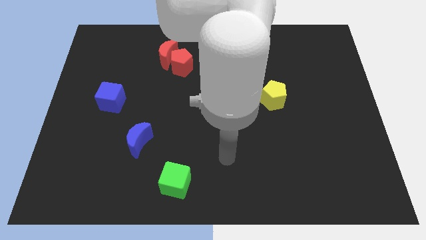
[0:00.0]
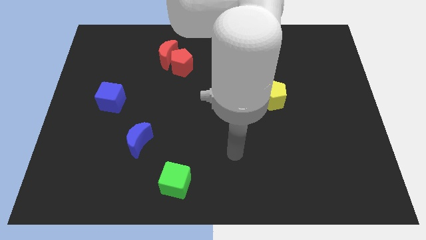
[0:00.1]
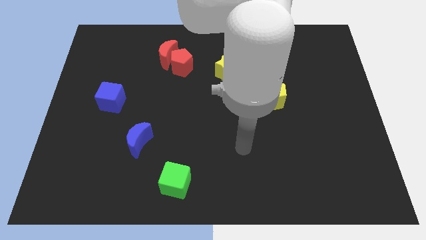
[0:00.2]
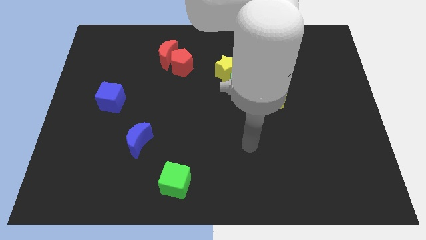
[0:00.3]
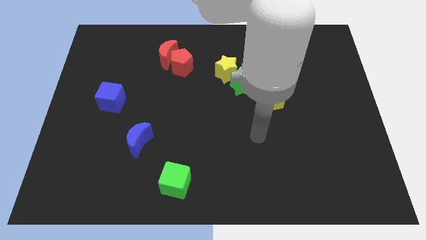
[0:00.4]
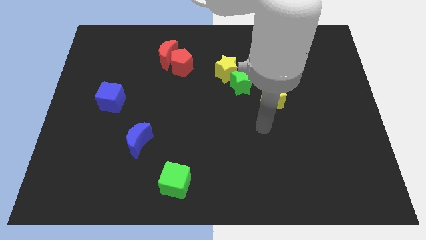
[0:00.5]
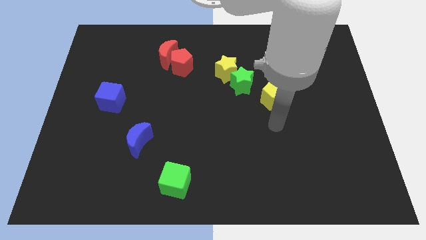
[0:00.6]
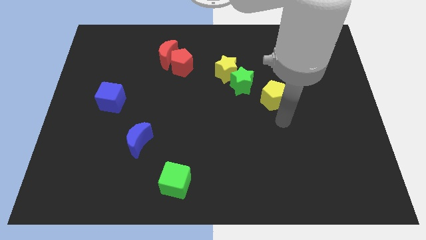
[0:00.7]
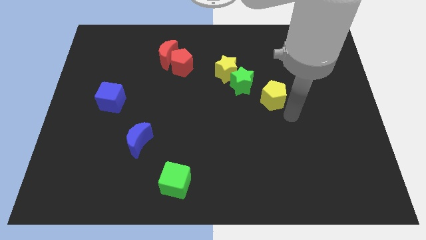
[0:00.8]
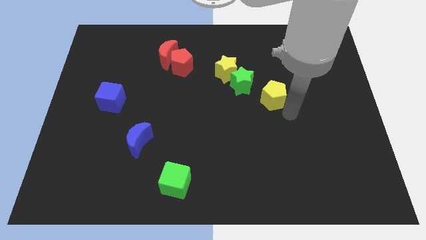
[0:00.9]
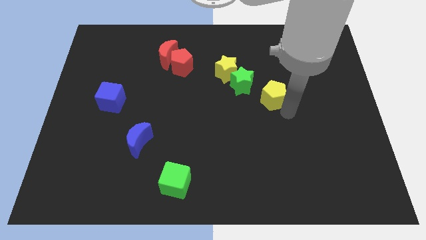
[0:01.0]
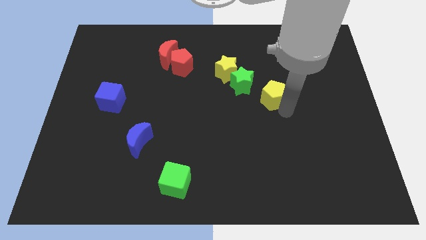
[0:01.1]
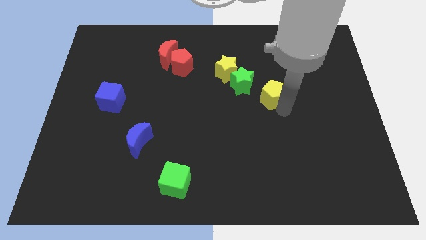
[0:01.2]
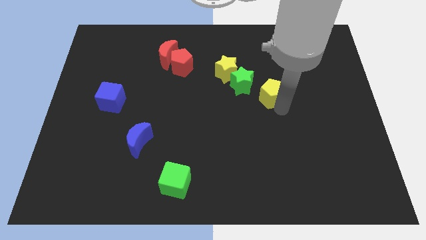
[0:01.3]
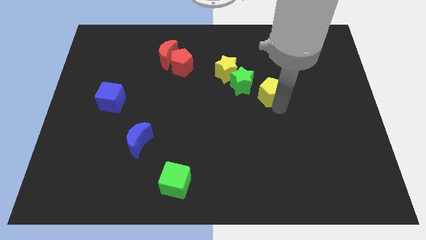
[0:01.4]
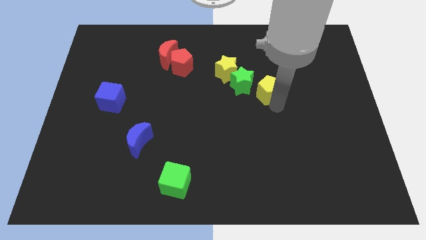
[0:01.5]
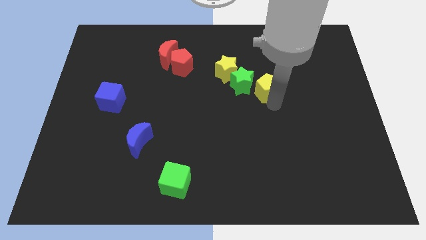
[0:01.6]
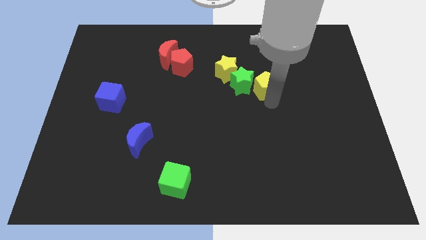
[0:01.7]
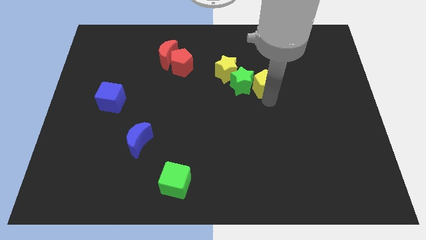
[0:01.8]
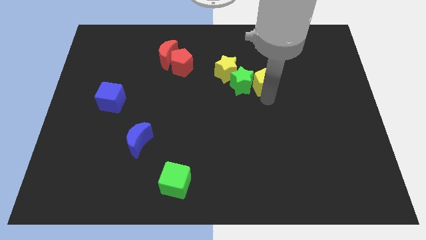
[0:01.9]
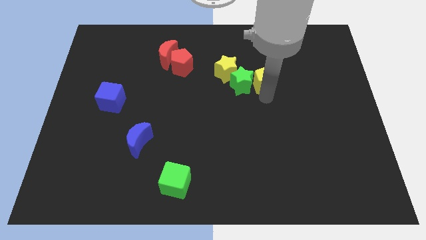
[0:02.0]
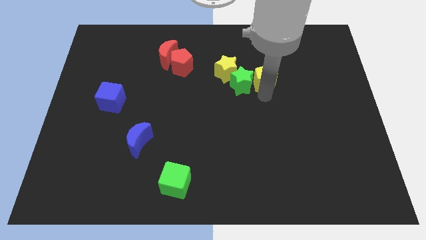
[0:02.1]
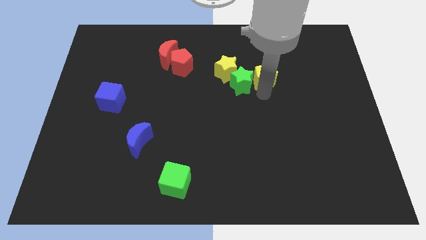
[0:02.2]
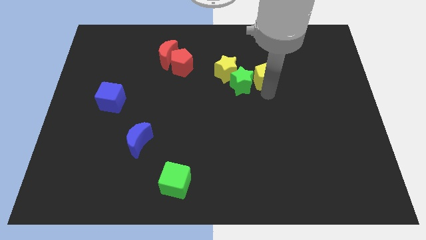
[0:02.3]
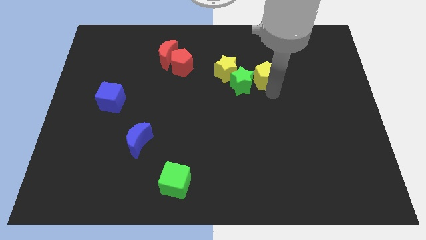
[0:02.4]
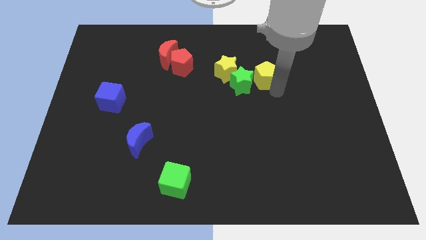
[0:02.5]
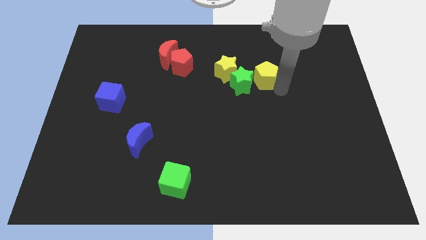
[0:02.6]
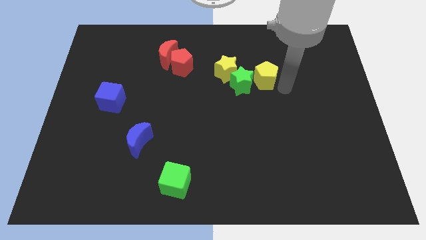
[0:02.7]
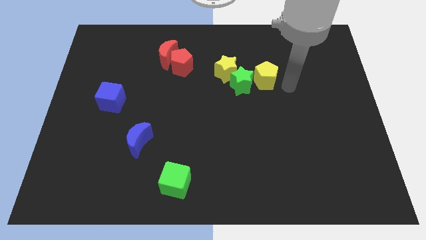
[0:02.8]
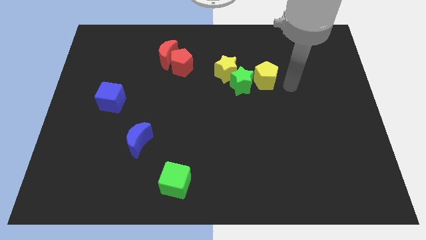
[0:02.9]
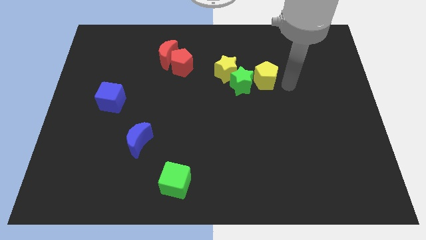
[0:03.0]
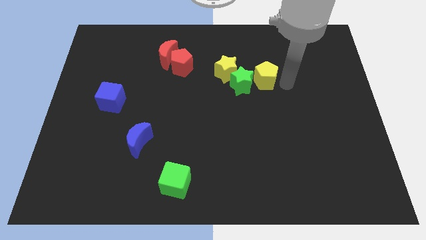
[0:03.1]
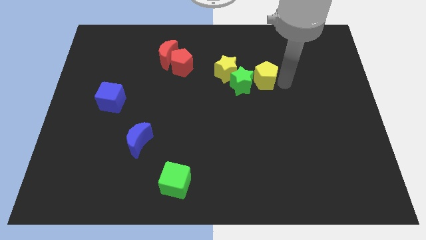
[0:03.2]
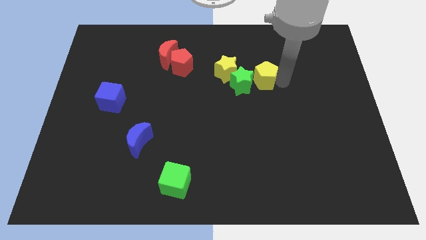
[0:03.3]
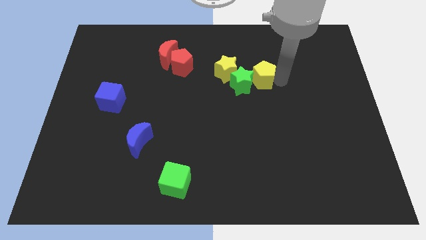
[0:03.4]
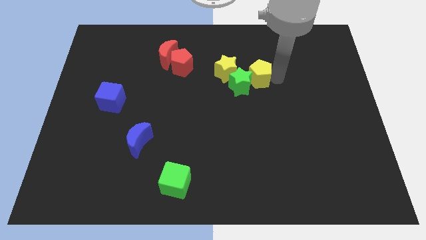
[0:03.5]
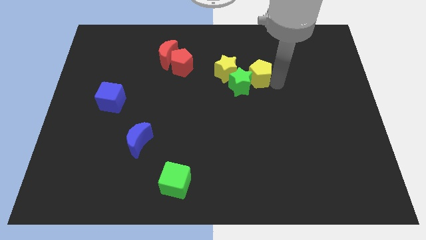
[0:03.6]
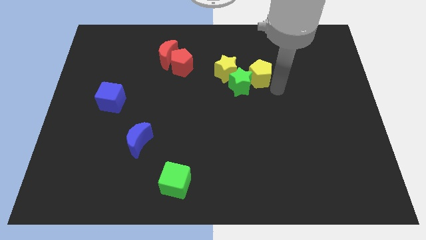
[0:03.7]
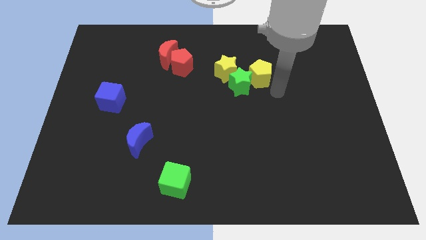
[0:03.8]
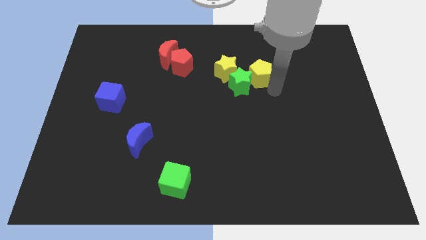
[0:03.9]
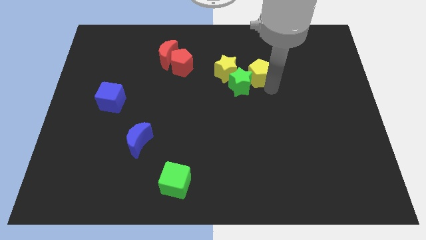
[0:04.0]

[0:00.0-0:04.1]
slightly push the yellow pentagon upwards and then left

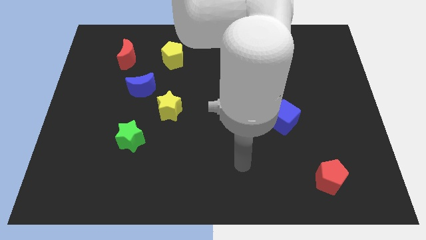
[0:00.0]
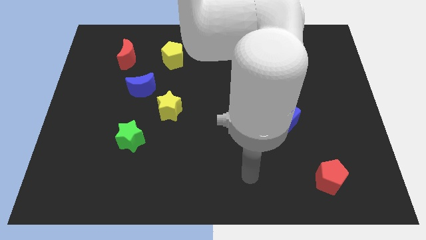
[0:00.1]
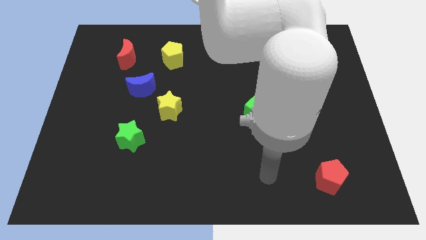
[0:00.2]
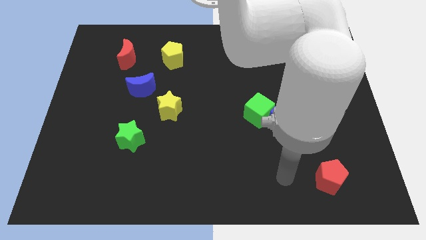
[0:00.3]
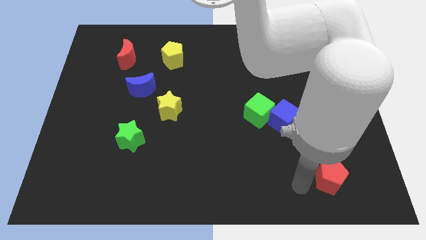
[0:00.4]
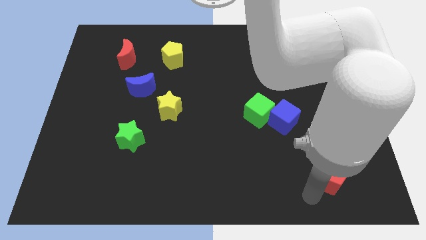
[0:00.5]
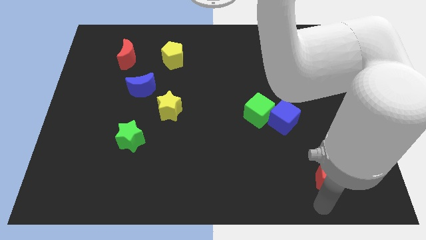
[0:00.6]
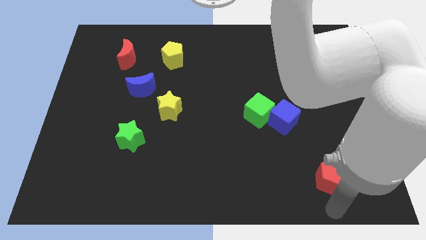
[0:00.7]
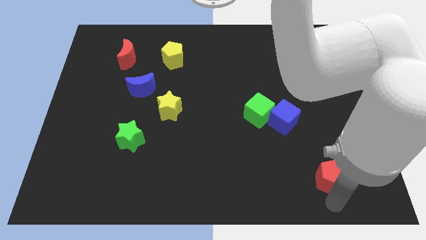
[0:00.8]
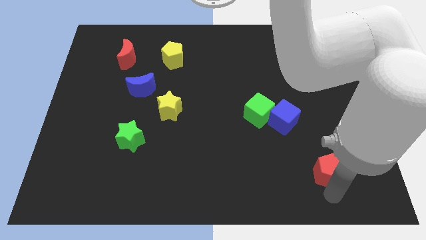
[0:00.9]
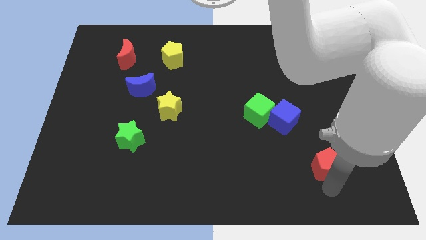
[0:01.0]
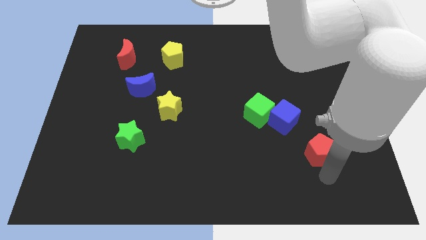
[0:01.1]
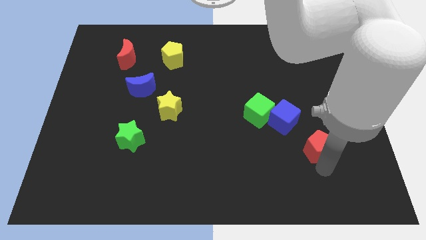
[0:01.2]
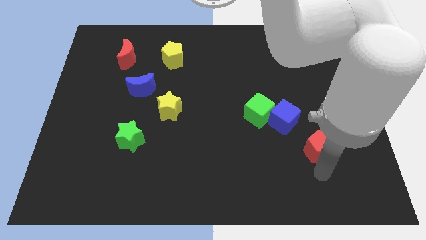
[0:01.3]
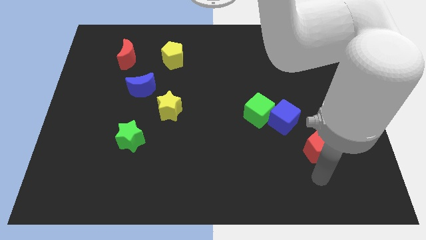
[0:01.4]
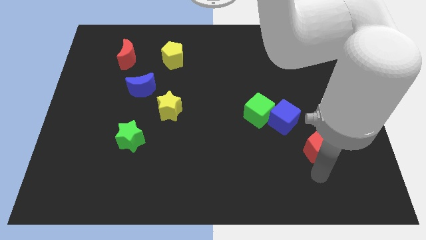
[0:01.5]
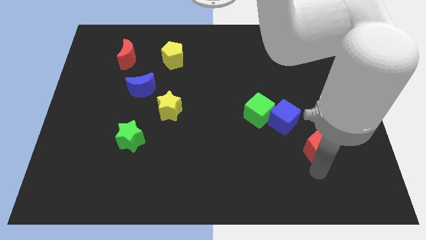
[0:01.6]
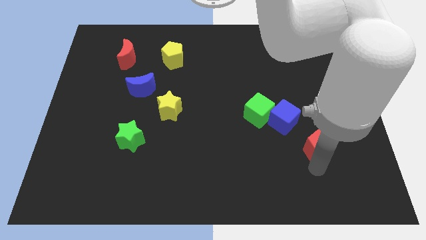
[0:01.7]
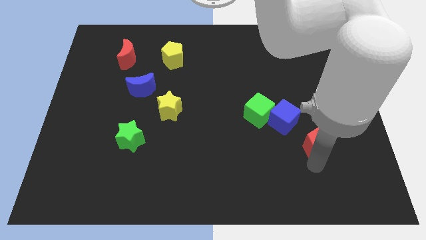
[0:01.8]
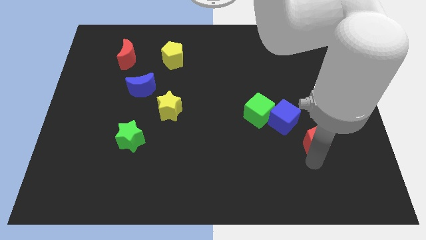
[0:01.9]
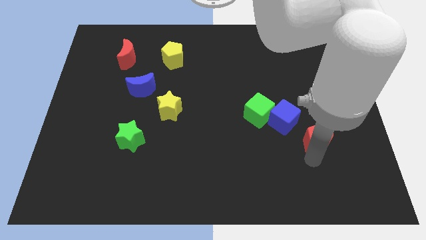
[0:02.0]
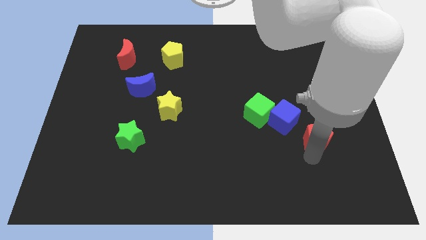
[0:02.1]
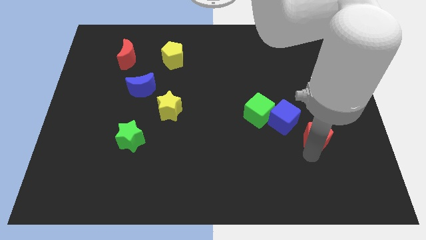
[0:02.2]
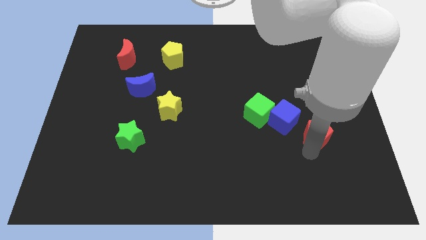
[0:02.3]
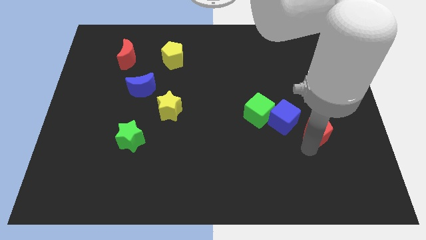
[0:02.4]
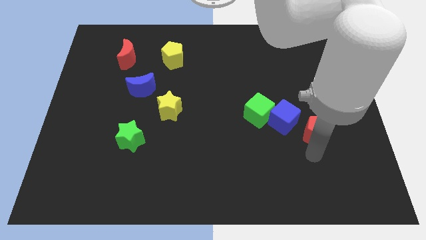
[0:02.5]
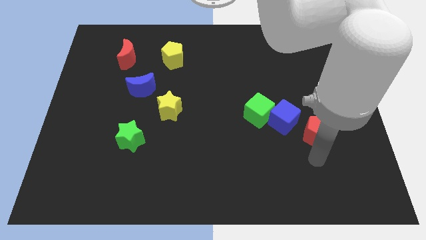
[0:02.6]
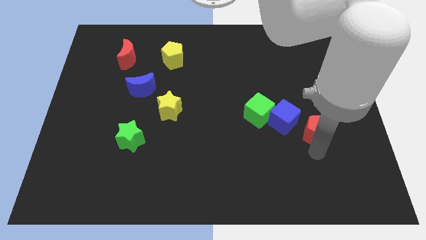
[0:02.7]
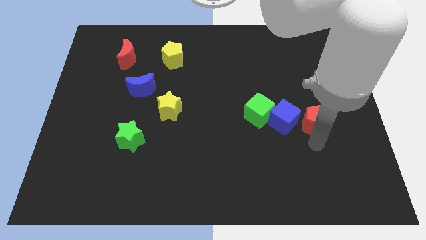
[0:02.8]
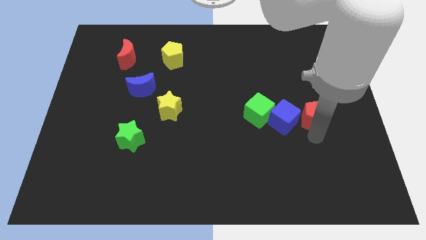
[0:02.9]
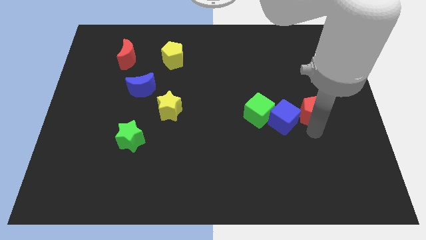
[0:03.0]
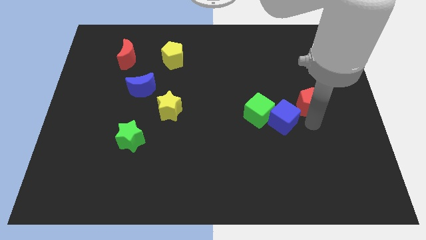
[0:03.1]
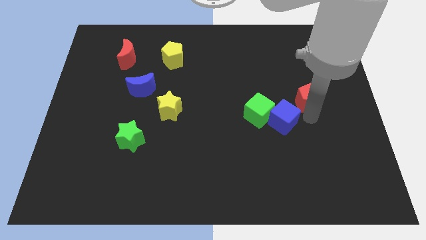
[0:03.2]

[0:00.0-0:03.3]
push the red pentagon upwards

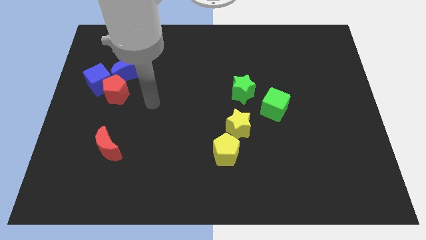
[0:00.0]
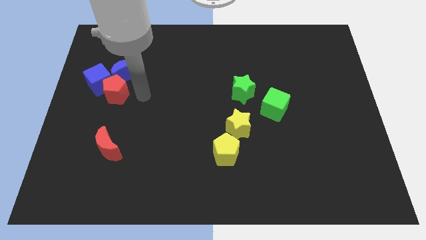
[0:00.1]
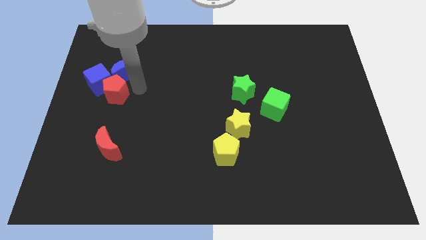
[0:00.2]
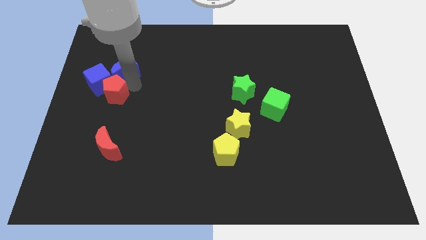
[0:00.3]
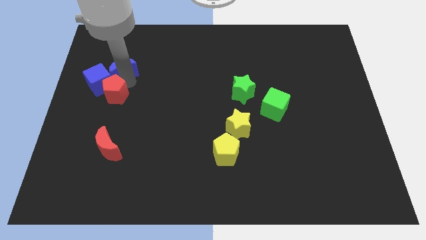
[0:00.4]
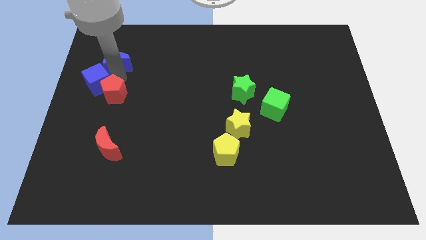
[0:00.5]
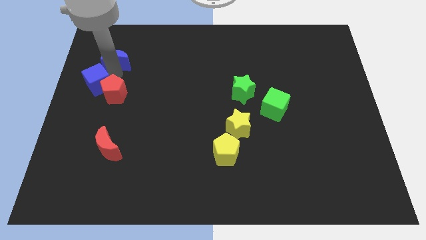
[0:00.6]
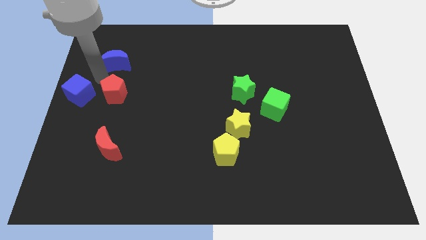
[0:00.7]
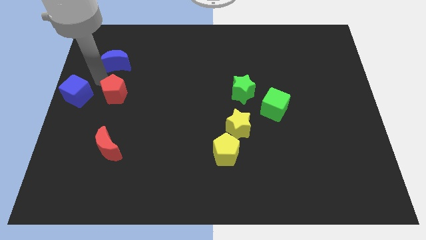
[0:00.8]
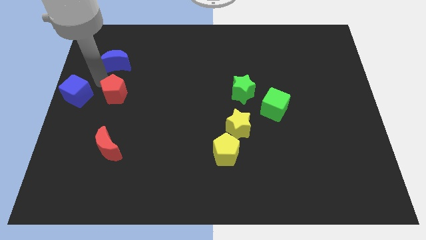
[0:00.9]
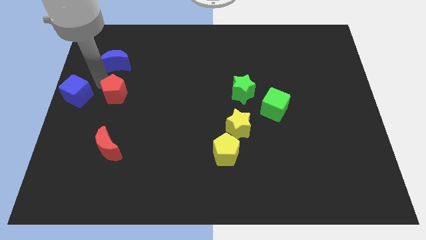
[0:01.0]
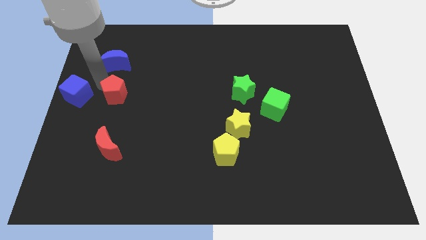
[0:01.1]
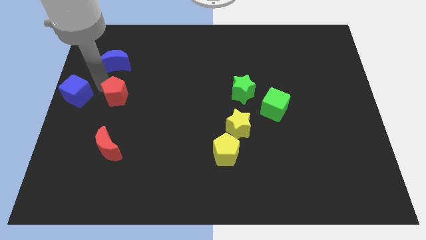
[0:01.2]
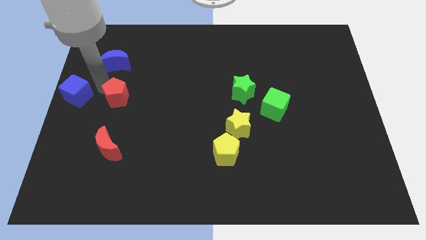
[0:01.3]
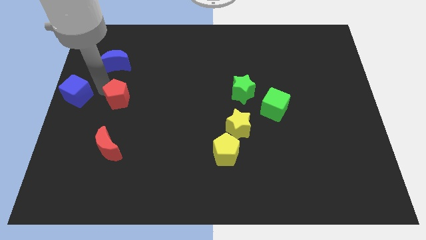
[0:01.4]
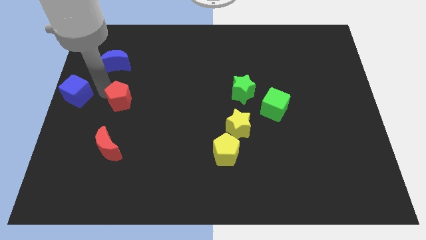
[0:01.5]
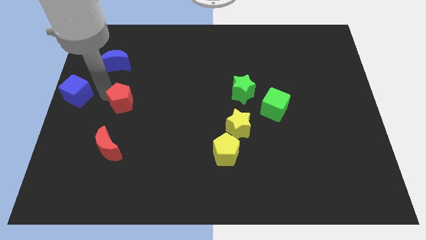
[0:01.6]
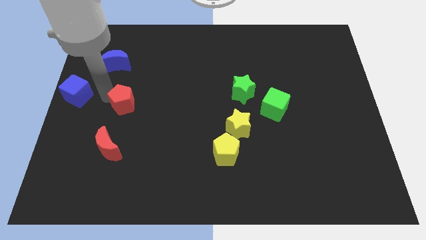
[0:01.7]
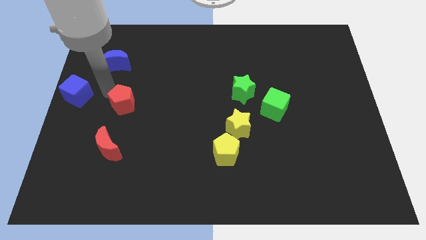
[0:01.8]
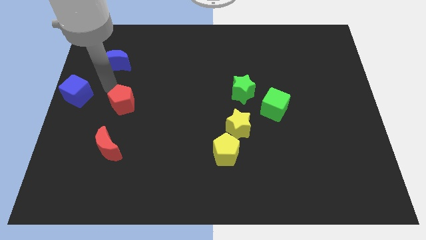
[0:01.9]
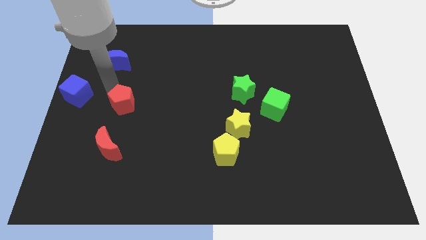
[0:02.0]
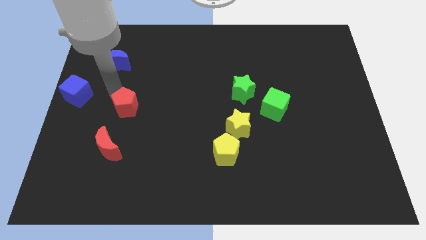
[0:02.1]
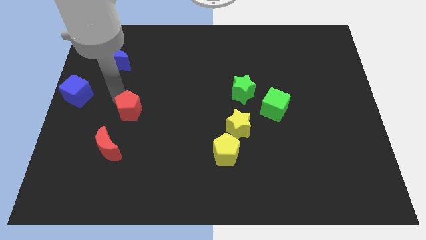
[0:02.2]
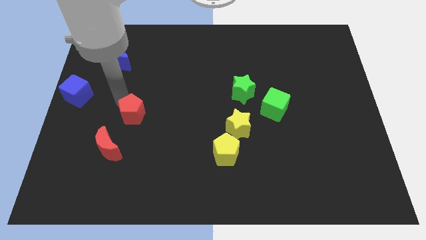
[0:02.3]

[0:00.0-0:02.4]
slightly slide the red pentagon down and then right
